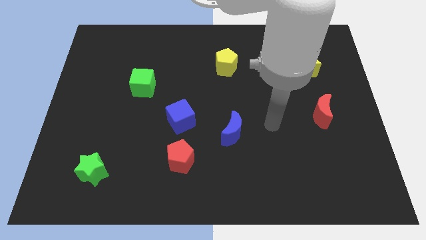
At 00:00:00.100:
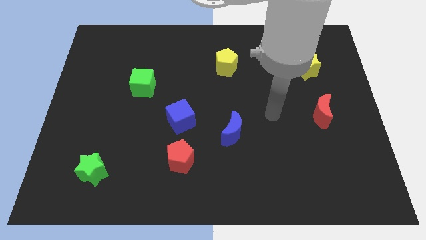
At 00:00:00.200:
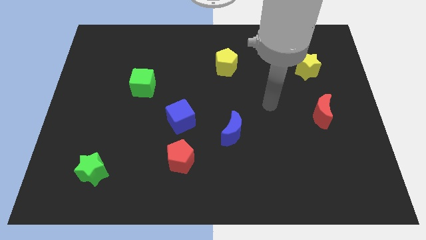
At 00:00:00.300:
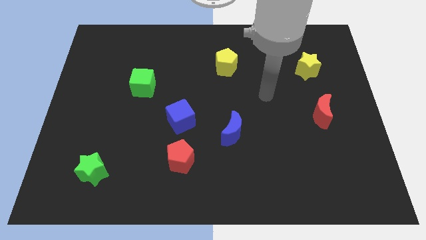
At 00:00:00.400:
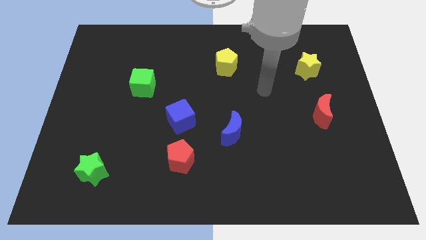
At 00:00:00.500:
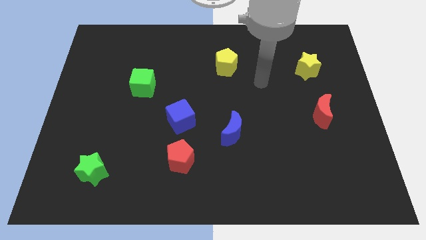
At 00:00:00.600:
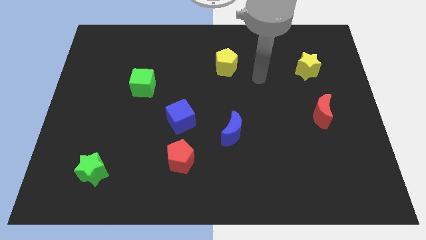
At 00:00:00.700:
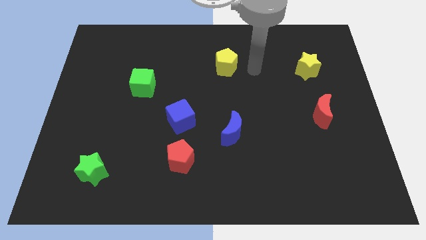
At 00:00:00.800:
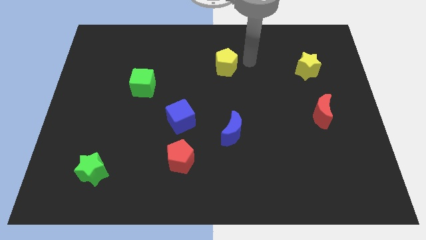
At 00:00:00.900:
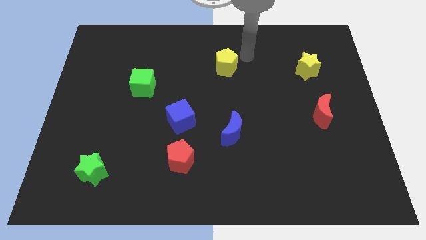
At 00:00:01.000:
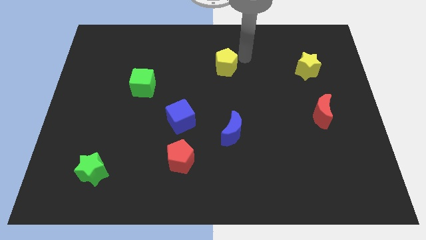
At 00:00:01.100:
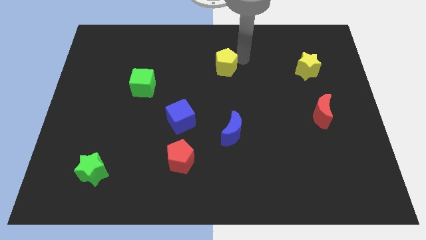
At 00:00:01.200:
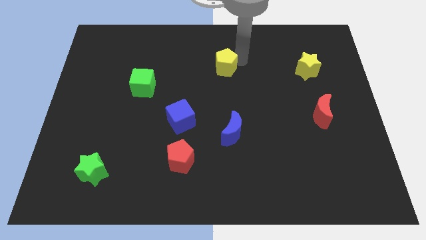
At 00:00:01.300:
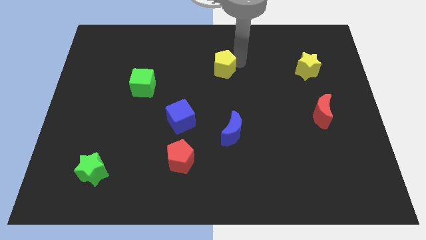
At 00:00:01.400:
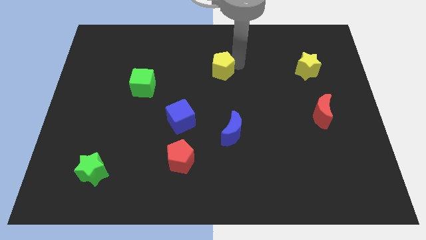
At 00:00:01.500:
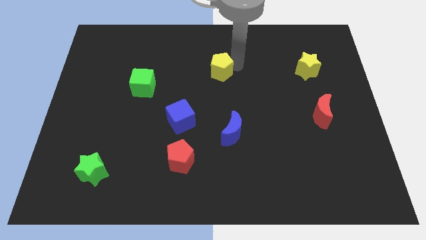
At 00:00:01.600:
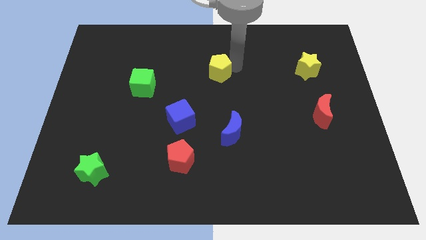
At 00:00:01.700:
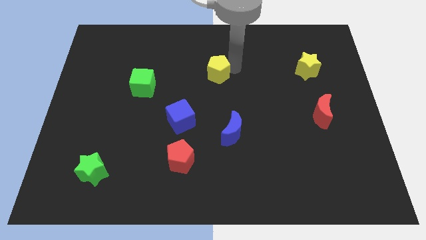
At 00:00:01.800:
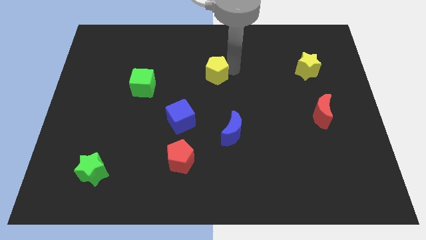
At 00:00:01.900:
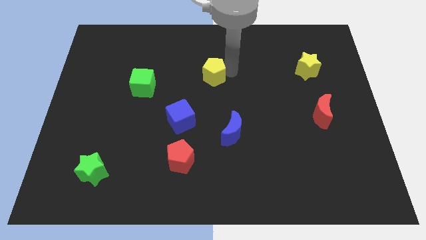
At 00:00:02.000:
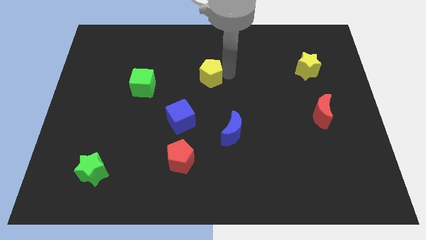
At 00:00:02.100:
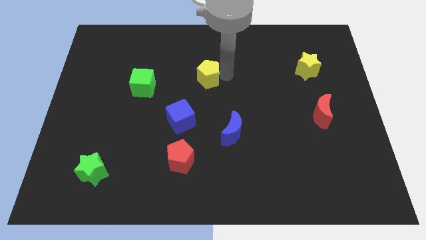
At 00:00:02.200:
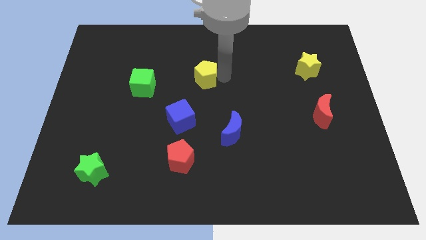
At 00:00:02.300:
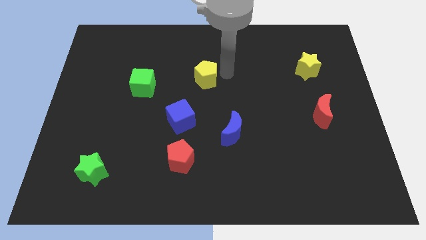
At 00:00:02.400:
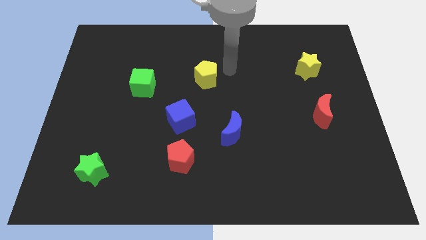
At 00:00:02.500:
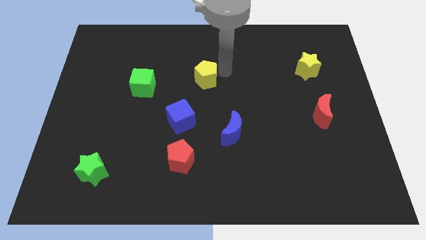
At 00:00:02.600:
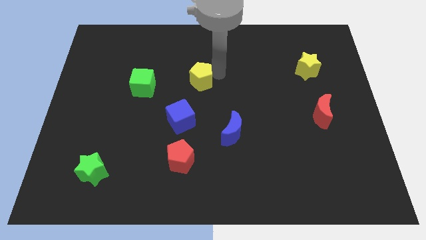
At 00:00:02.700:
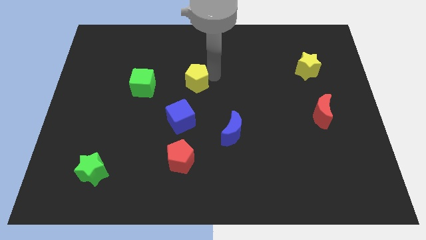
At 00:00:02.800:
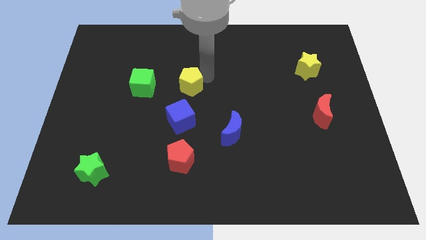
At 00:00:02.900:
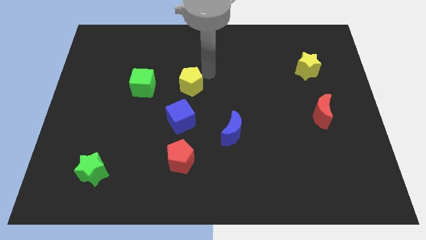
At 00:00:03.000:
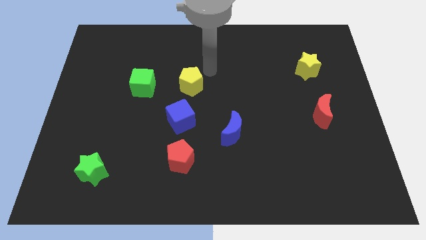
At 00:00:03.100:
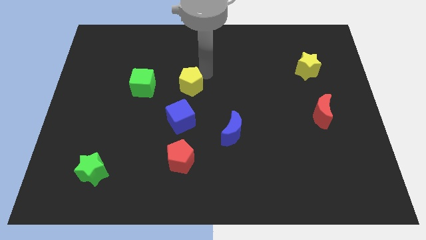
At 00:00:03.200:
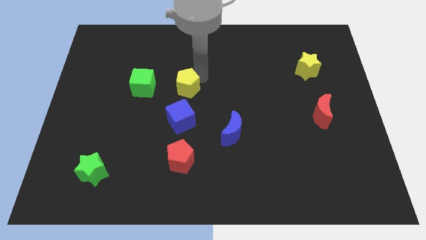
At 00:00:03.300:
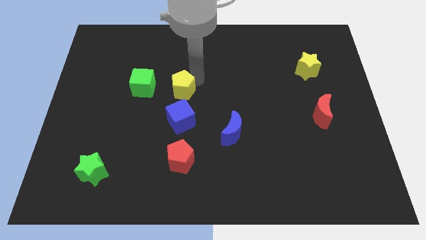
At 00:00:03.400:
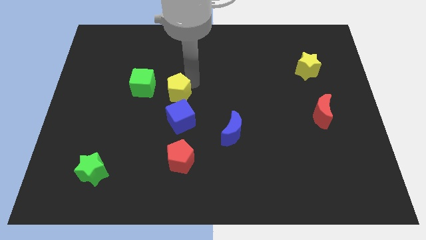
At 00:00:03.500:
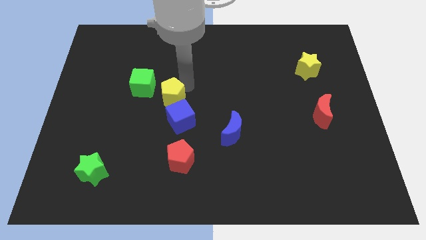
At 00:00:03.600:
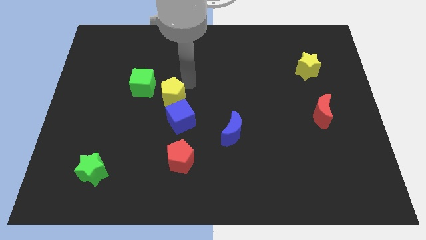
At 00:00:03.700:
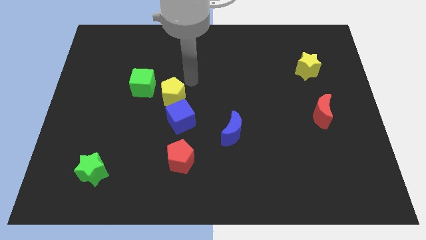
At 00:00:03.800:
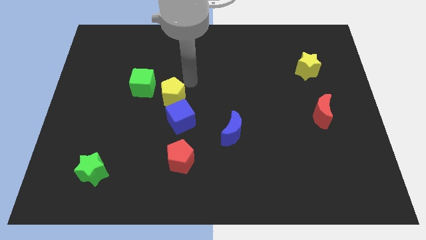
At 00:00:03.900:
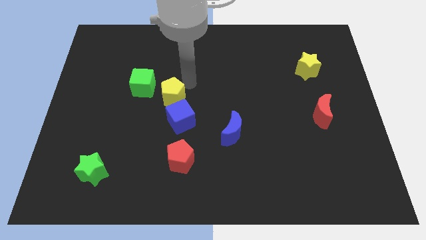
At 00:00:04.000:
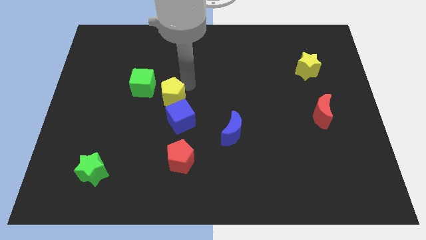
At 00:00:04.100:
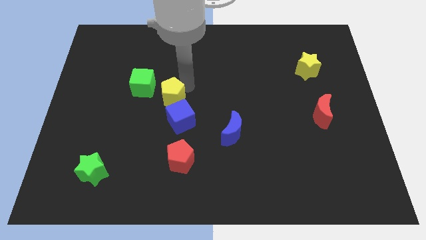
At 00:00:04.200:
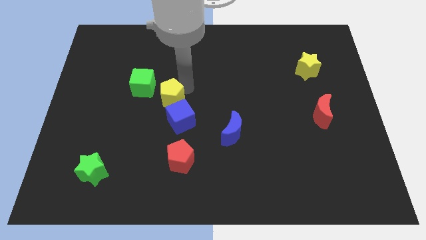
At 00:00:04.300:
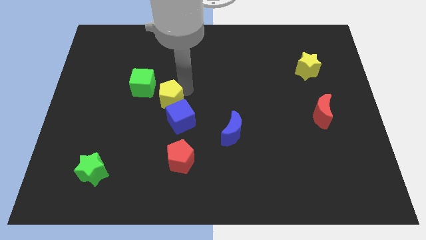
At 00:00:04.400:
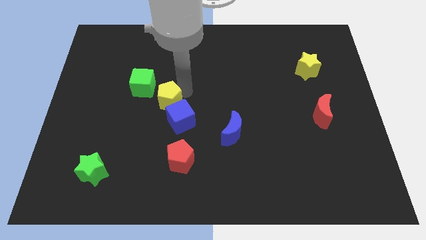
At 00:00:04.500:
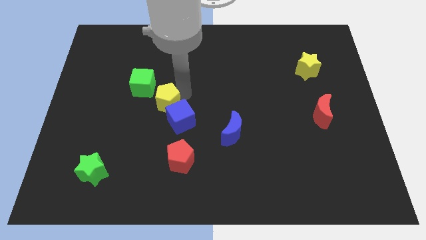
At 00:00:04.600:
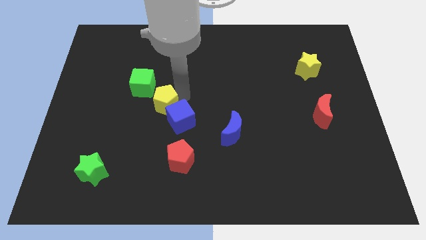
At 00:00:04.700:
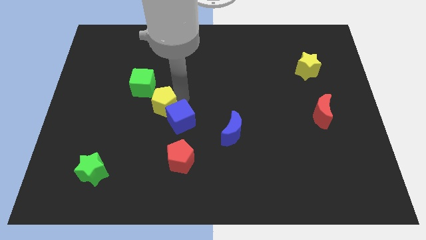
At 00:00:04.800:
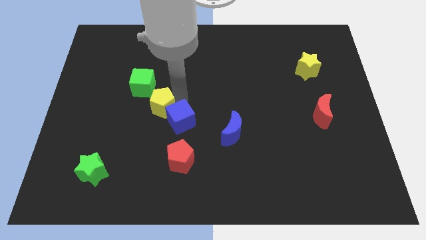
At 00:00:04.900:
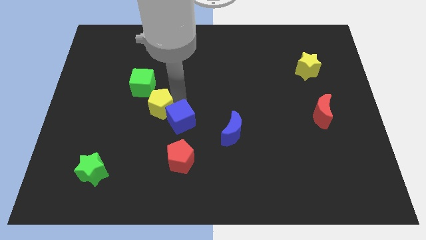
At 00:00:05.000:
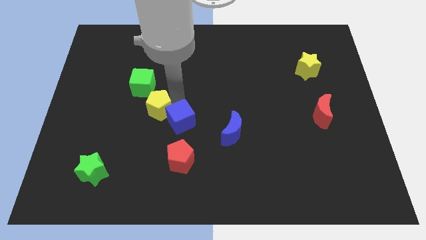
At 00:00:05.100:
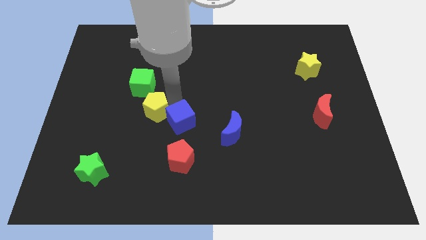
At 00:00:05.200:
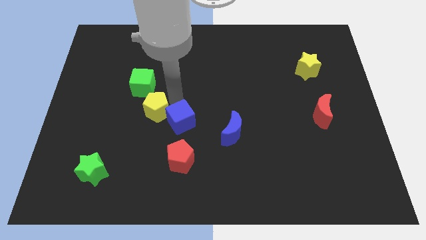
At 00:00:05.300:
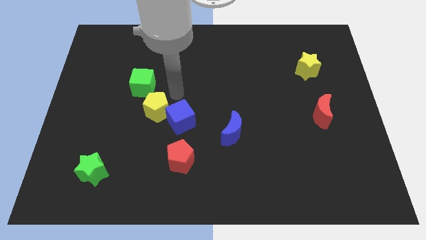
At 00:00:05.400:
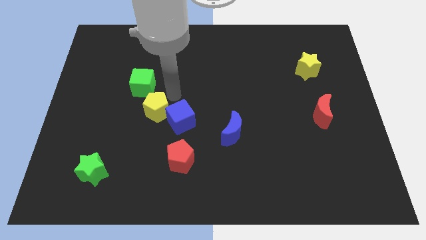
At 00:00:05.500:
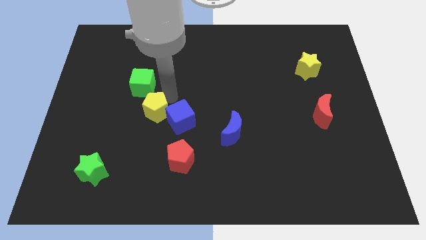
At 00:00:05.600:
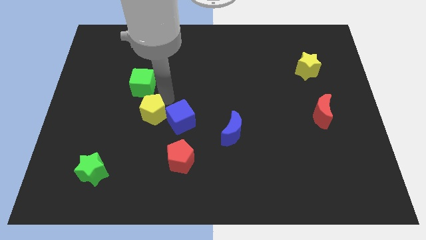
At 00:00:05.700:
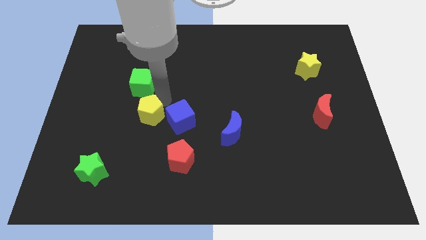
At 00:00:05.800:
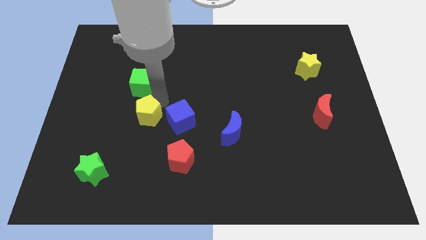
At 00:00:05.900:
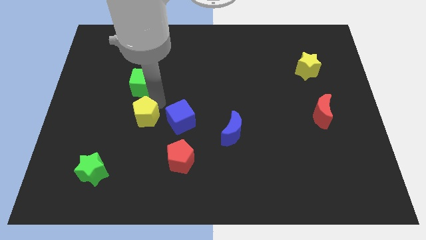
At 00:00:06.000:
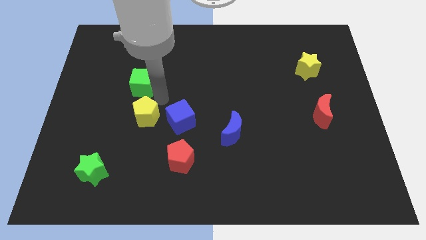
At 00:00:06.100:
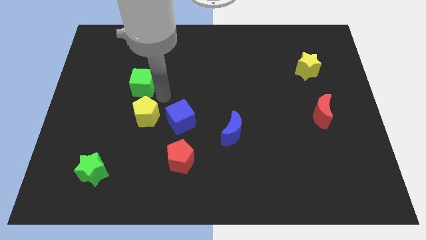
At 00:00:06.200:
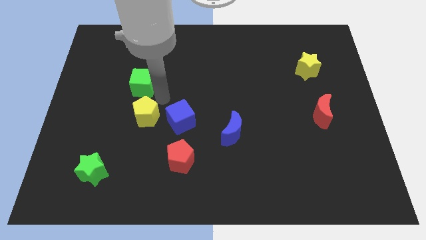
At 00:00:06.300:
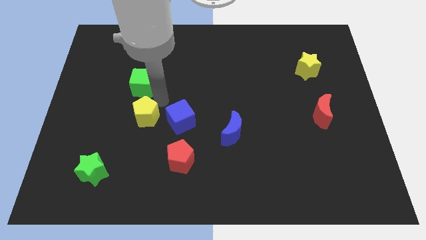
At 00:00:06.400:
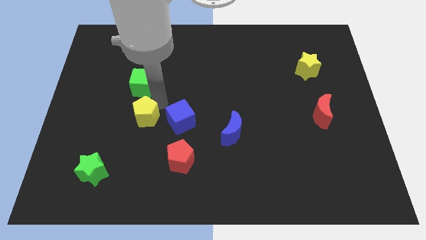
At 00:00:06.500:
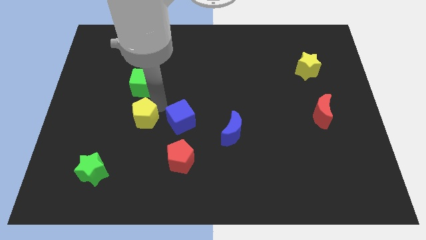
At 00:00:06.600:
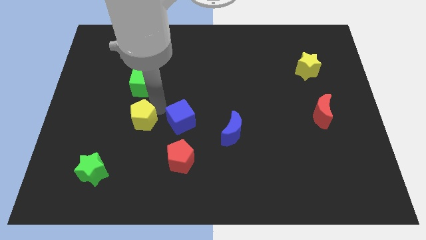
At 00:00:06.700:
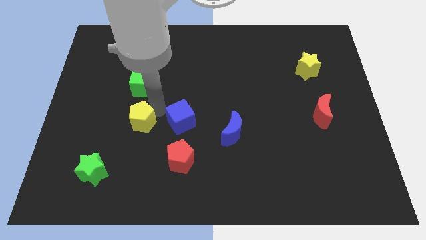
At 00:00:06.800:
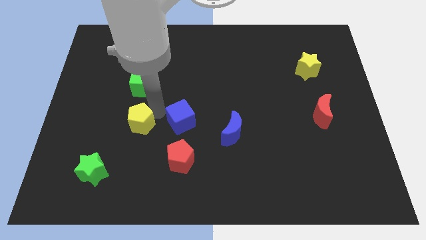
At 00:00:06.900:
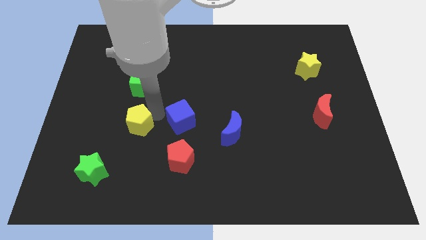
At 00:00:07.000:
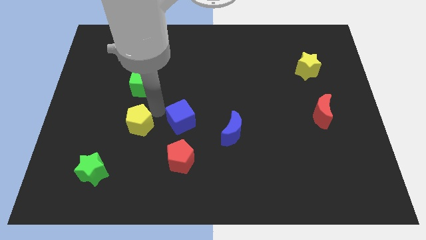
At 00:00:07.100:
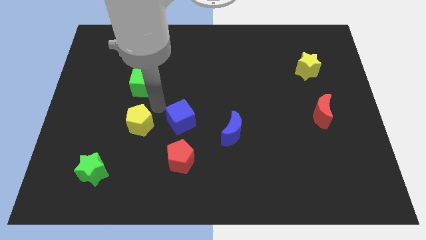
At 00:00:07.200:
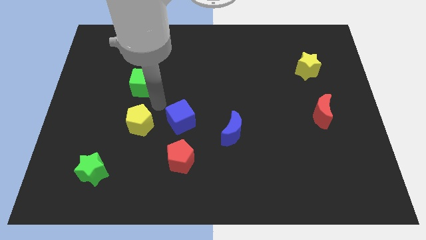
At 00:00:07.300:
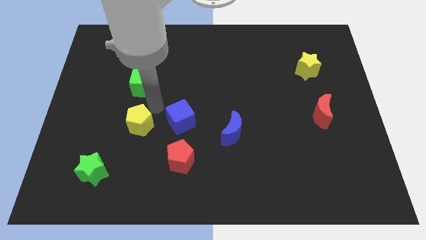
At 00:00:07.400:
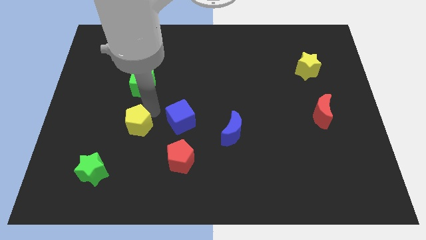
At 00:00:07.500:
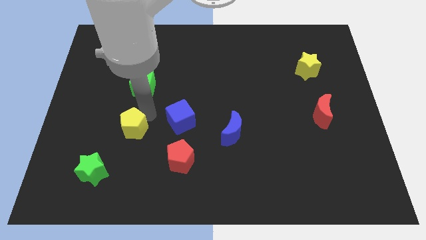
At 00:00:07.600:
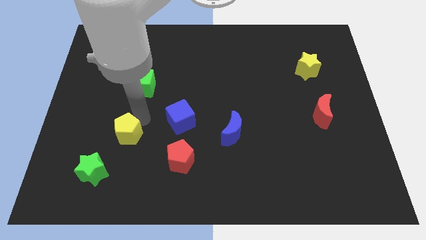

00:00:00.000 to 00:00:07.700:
move the yellow pentagon to the top right side of the green star
